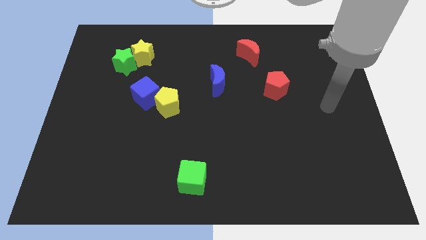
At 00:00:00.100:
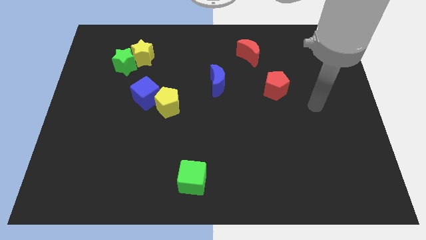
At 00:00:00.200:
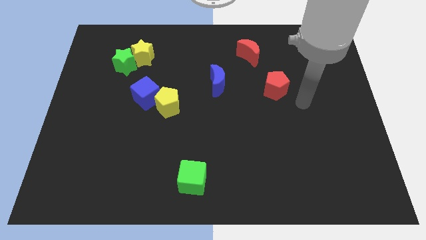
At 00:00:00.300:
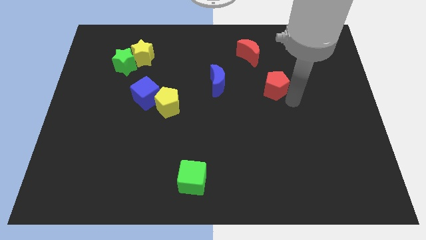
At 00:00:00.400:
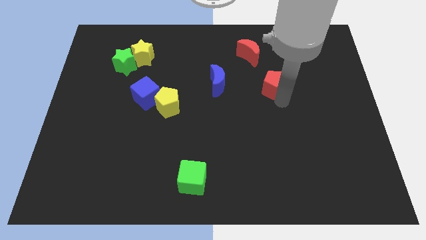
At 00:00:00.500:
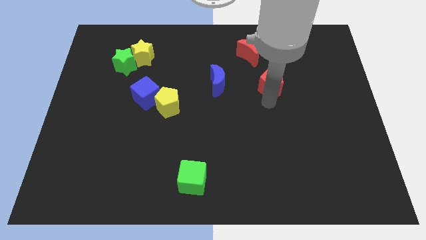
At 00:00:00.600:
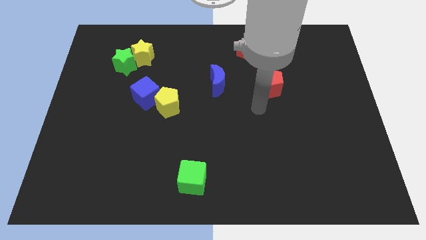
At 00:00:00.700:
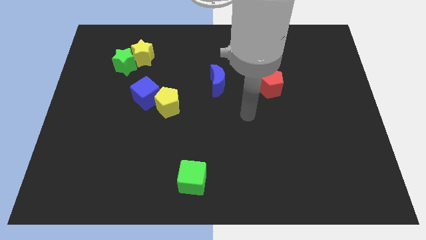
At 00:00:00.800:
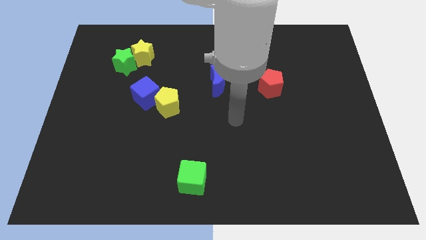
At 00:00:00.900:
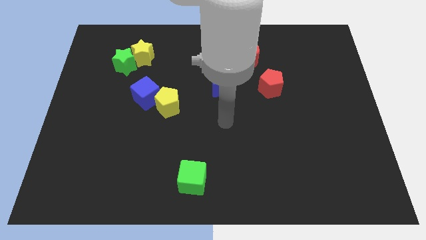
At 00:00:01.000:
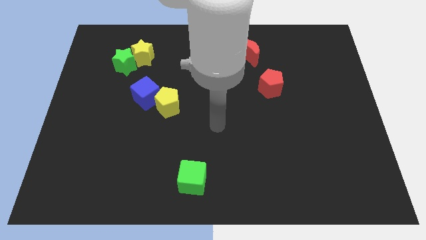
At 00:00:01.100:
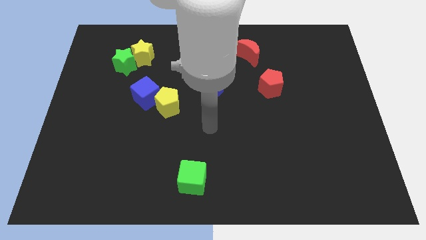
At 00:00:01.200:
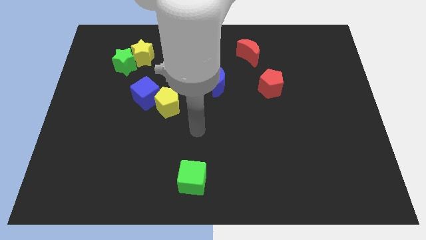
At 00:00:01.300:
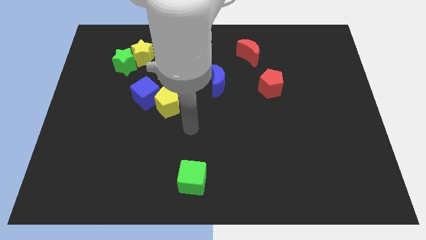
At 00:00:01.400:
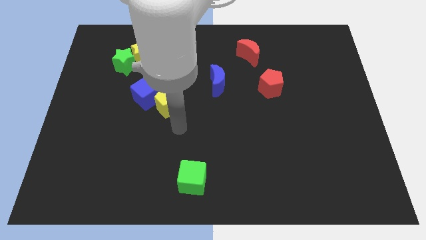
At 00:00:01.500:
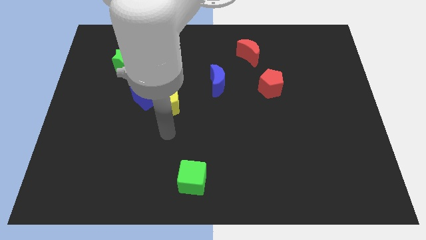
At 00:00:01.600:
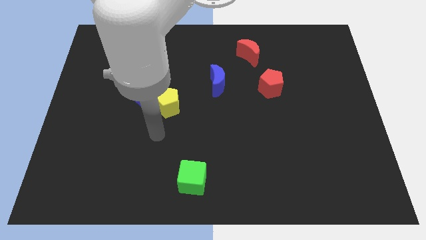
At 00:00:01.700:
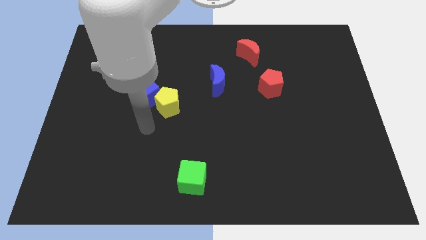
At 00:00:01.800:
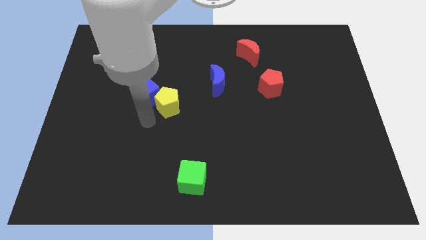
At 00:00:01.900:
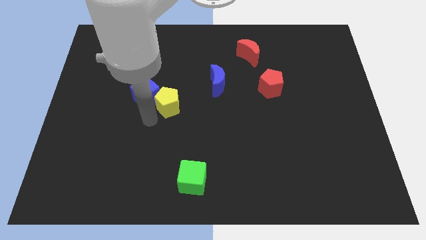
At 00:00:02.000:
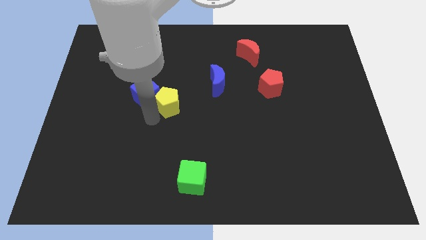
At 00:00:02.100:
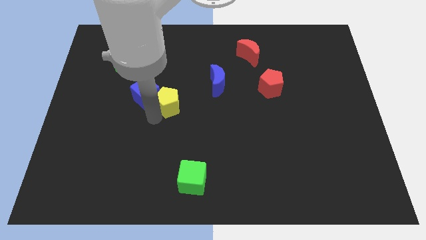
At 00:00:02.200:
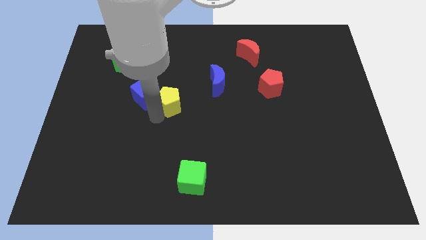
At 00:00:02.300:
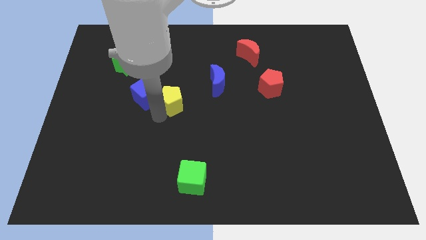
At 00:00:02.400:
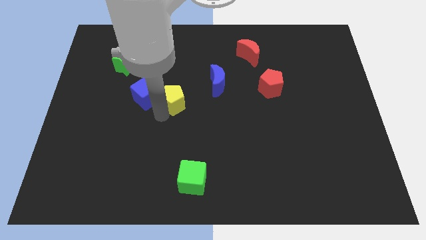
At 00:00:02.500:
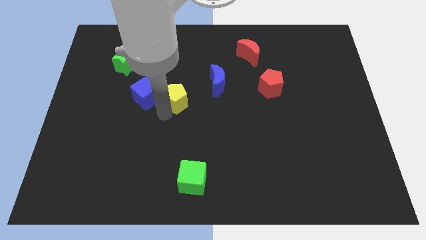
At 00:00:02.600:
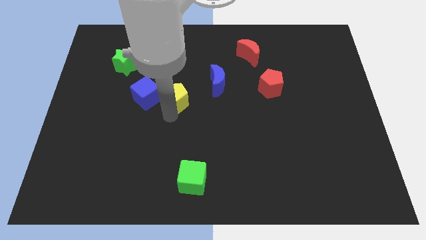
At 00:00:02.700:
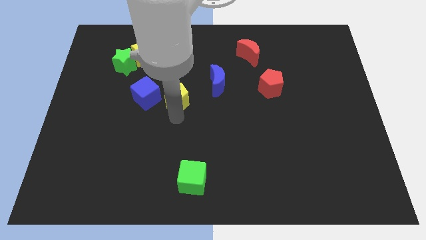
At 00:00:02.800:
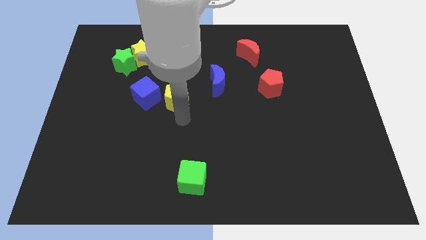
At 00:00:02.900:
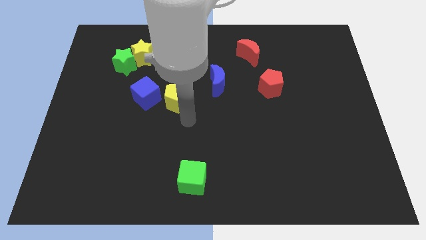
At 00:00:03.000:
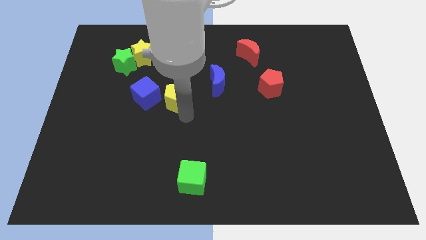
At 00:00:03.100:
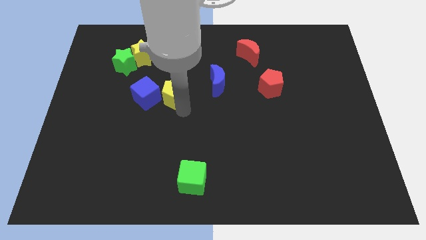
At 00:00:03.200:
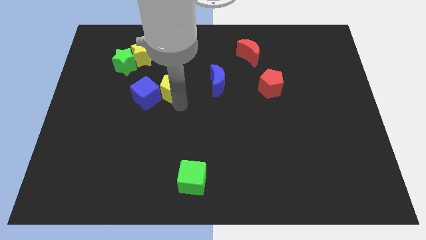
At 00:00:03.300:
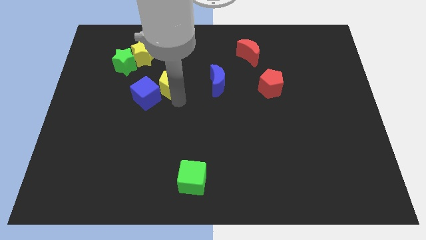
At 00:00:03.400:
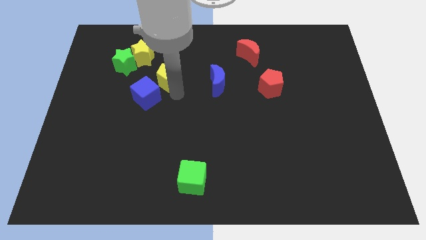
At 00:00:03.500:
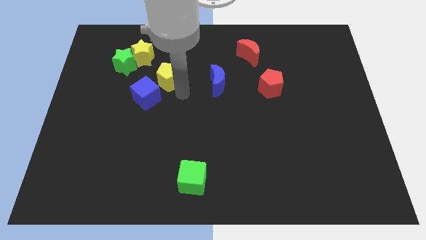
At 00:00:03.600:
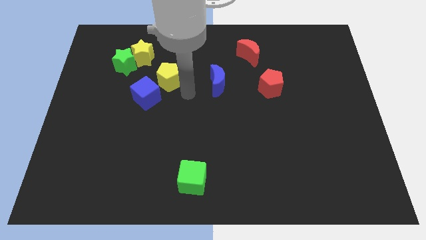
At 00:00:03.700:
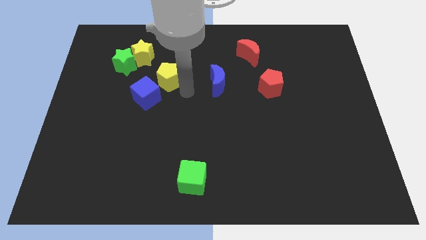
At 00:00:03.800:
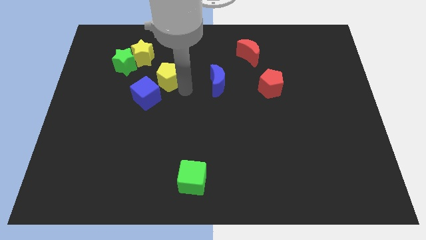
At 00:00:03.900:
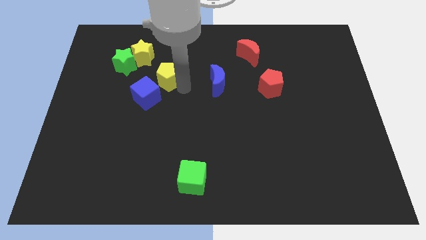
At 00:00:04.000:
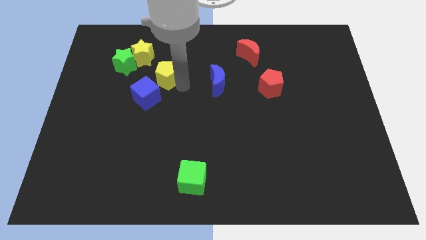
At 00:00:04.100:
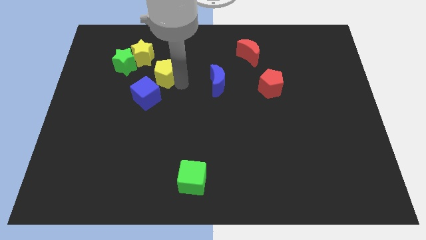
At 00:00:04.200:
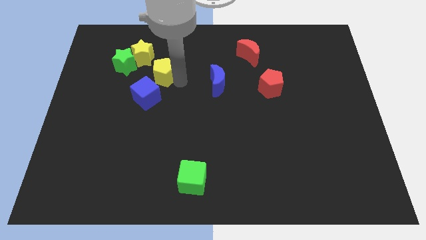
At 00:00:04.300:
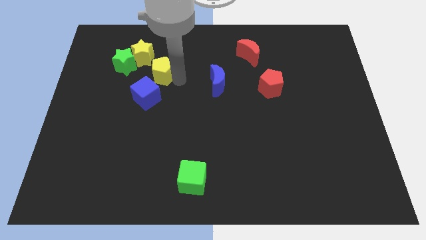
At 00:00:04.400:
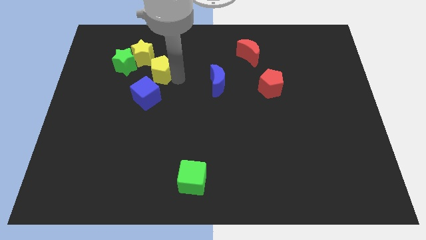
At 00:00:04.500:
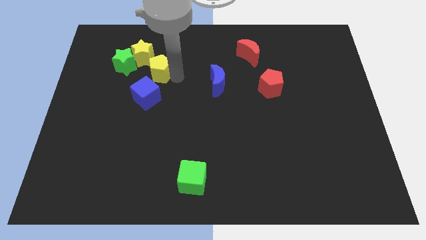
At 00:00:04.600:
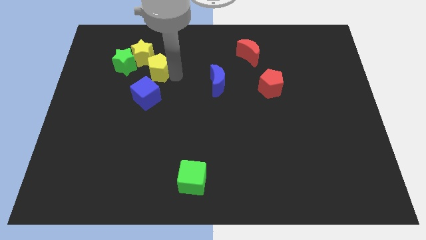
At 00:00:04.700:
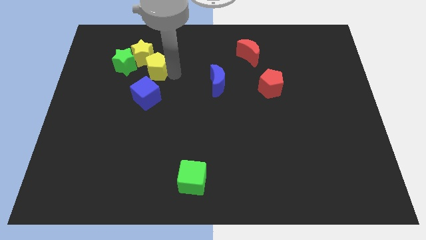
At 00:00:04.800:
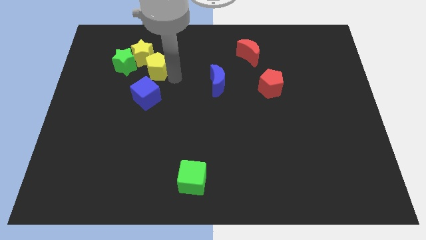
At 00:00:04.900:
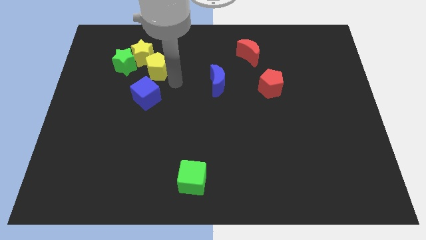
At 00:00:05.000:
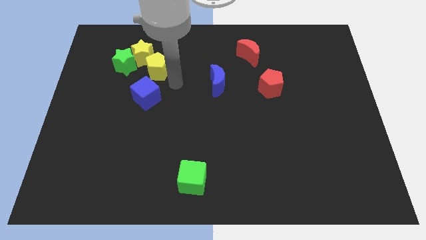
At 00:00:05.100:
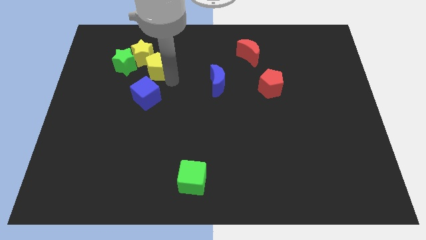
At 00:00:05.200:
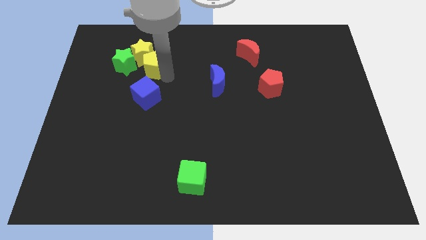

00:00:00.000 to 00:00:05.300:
slide the yellow pentagon to the yellow star
